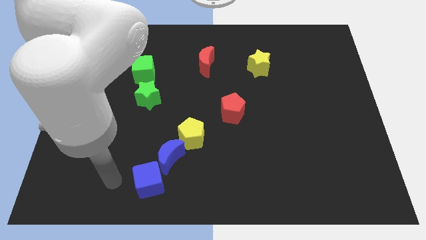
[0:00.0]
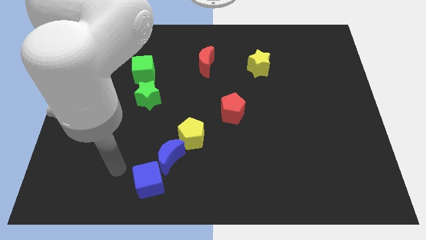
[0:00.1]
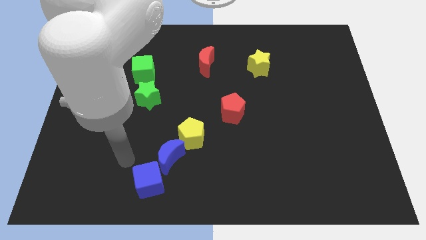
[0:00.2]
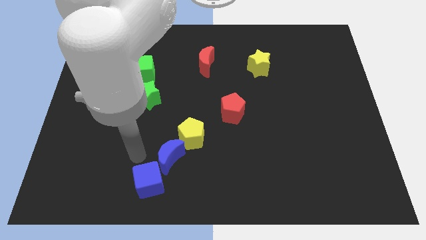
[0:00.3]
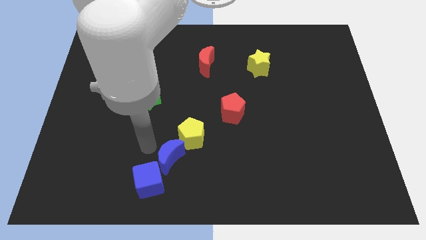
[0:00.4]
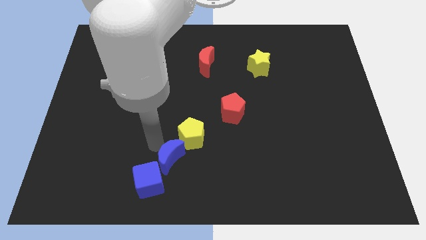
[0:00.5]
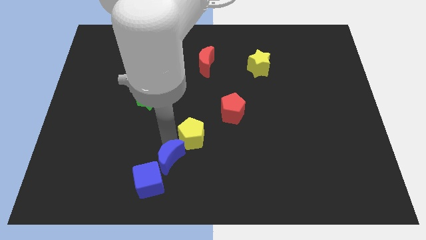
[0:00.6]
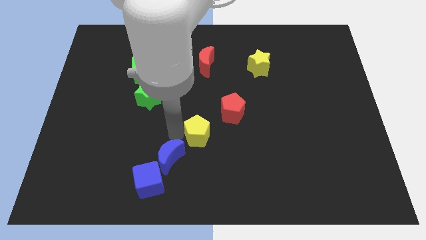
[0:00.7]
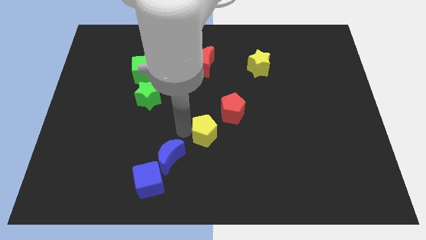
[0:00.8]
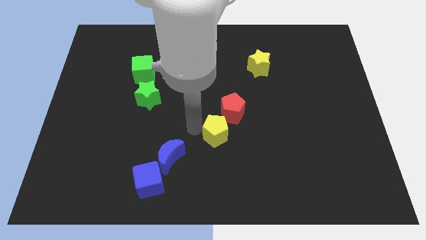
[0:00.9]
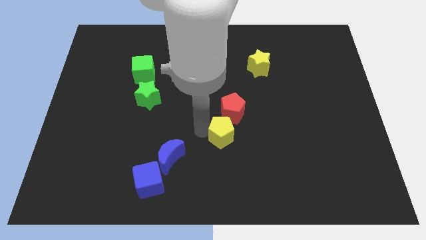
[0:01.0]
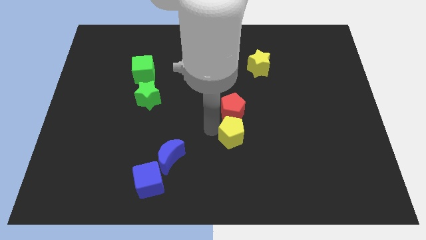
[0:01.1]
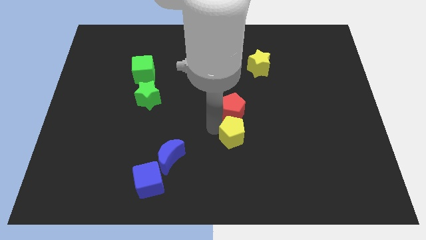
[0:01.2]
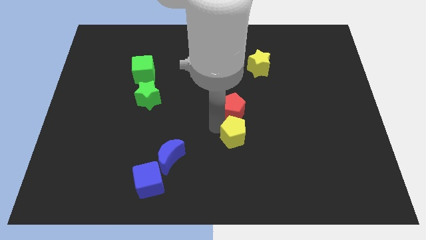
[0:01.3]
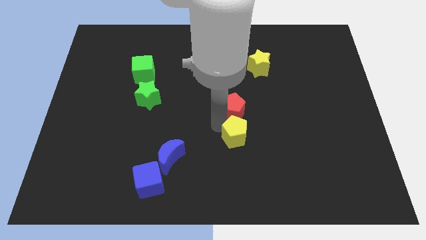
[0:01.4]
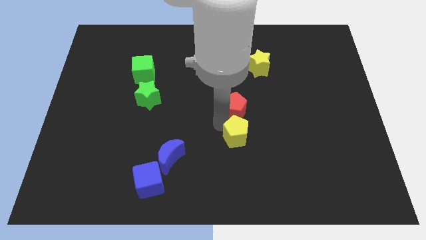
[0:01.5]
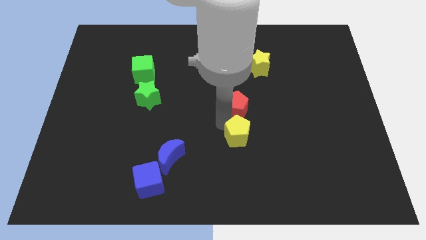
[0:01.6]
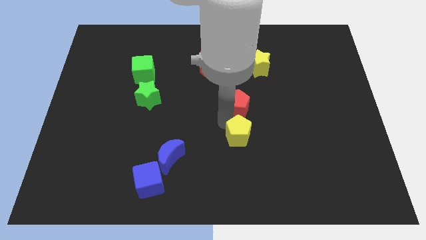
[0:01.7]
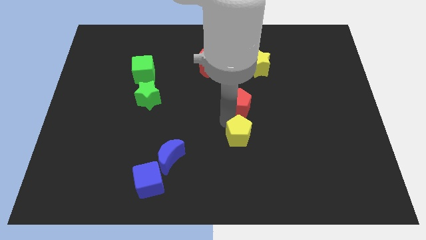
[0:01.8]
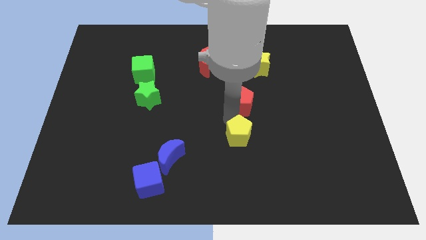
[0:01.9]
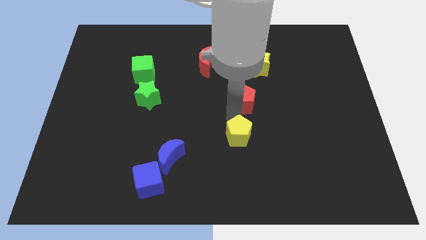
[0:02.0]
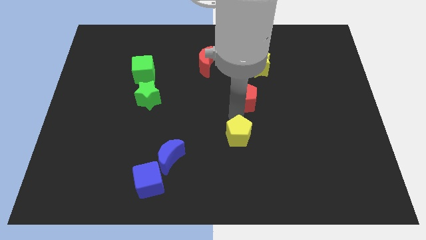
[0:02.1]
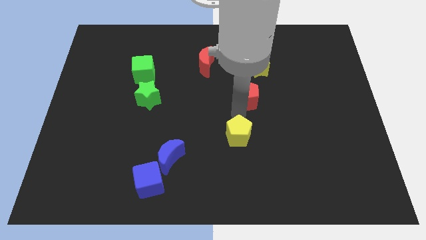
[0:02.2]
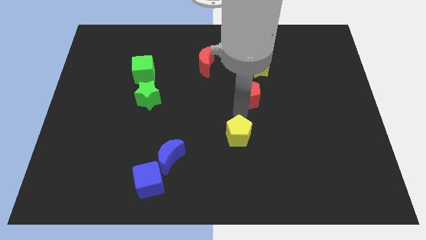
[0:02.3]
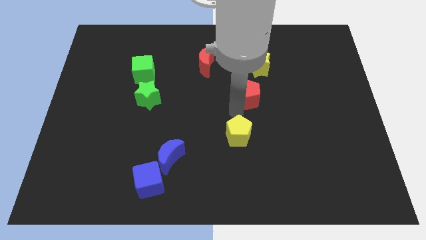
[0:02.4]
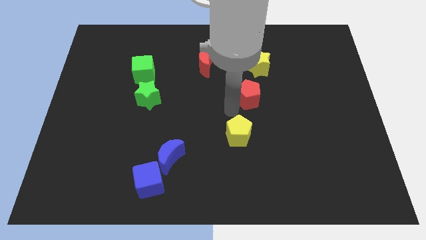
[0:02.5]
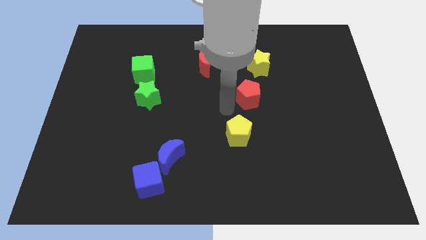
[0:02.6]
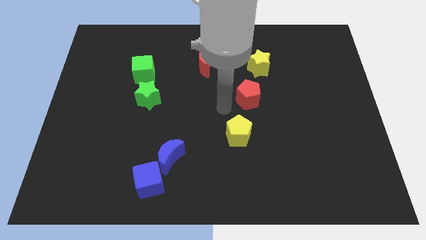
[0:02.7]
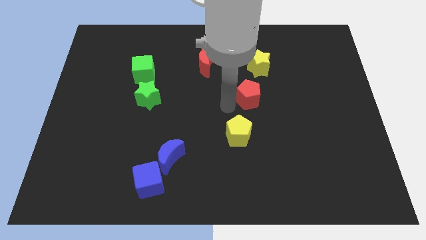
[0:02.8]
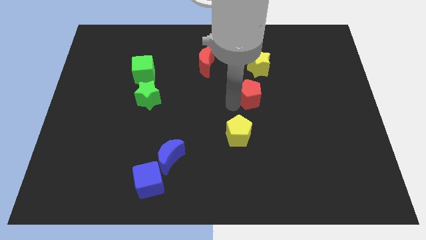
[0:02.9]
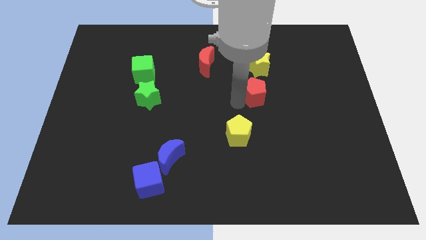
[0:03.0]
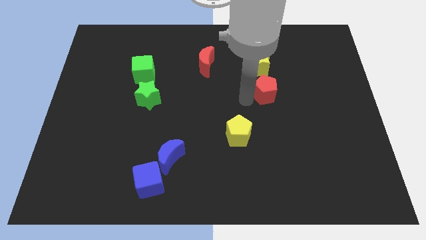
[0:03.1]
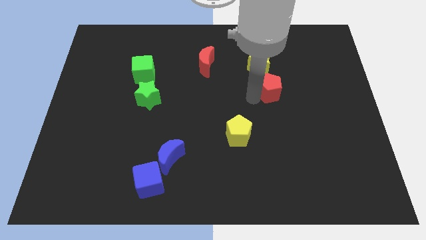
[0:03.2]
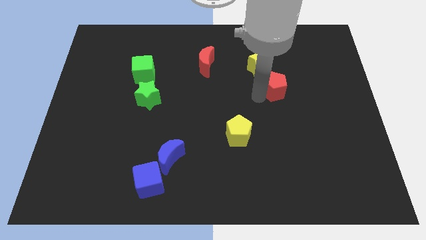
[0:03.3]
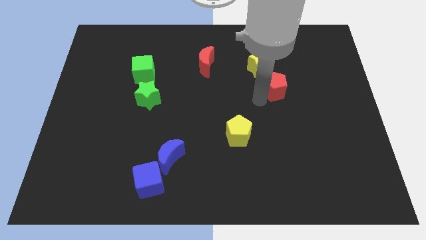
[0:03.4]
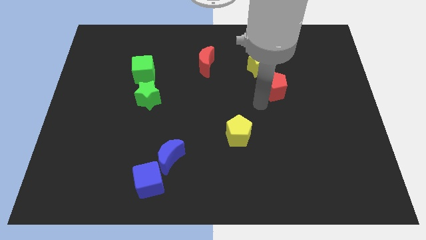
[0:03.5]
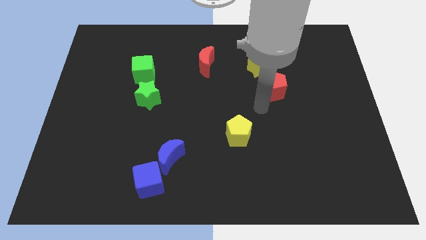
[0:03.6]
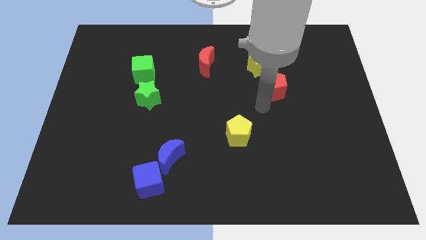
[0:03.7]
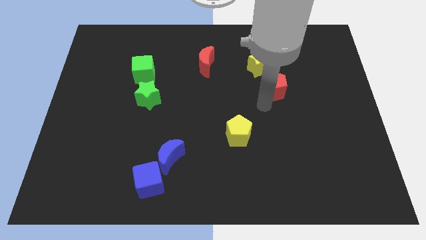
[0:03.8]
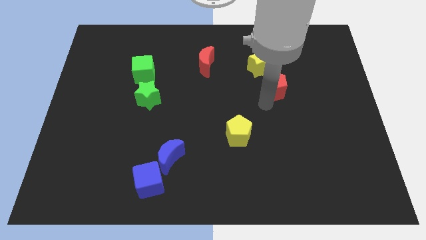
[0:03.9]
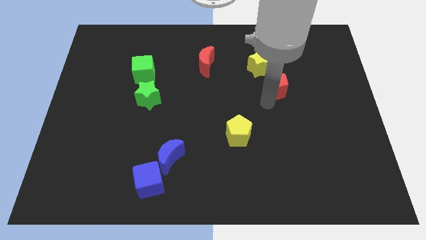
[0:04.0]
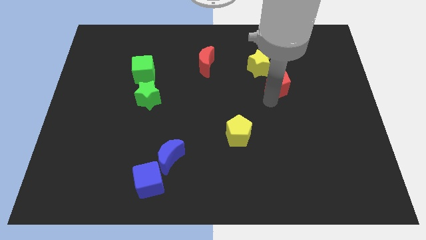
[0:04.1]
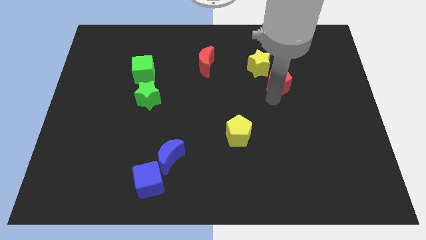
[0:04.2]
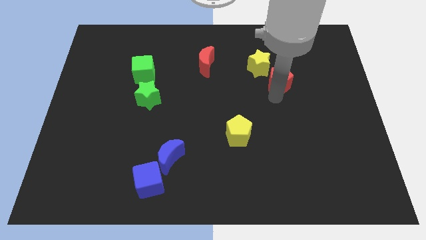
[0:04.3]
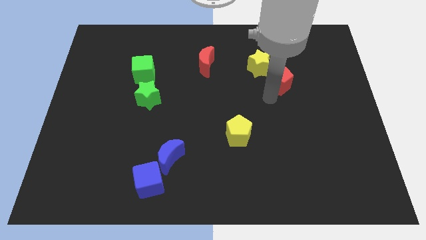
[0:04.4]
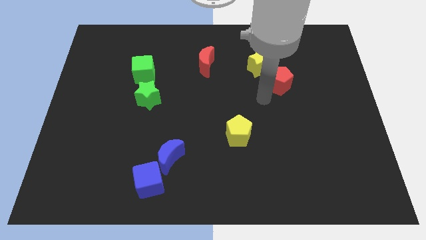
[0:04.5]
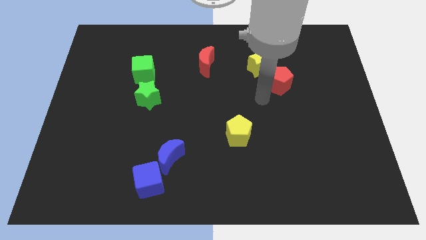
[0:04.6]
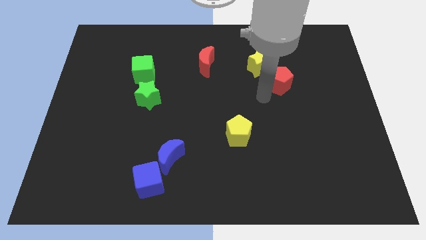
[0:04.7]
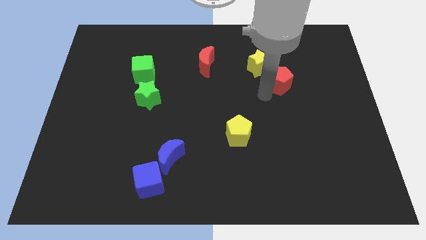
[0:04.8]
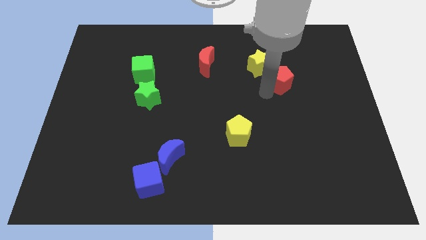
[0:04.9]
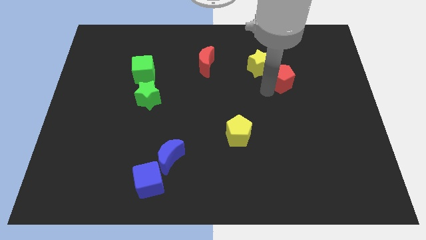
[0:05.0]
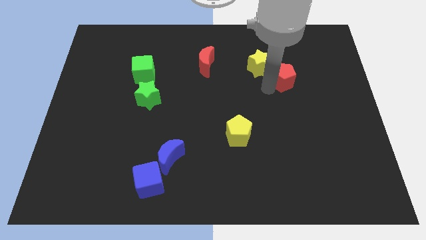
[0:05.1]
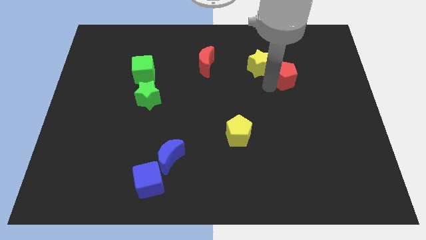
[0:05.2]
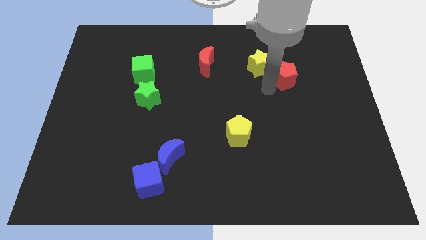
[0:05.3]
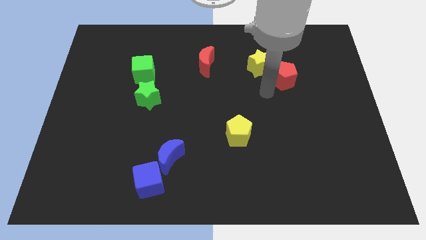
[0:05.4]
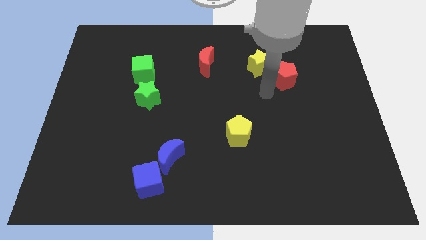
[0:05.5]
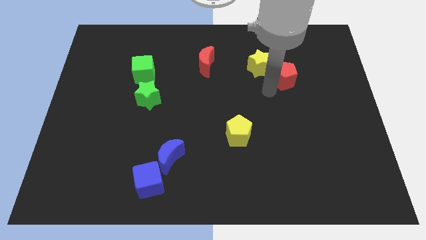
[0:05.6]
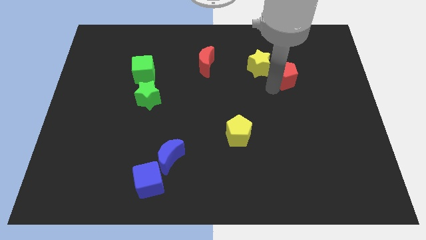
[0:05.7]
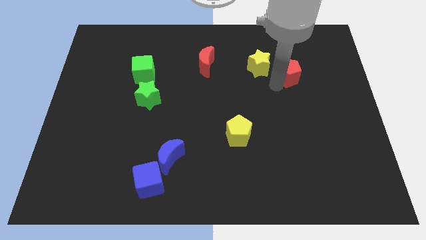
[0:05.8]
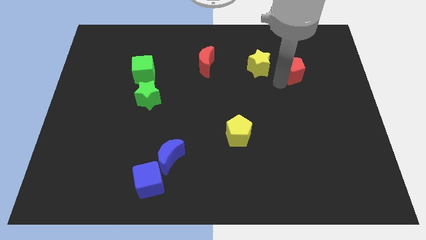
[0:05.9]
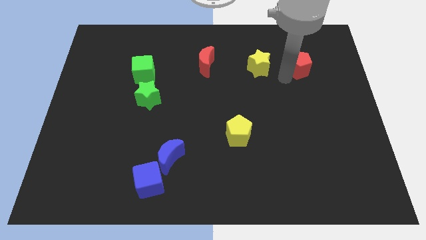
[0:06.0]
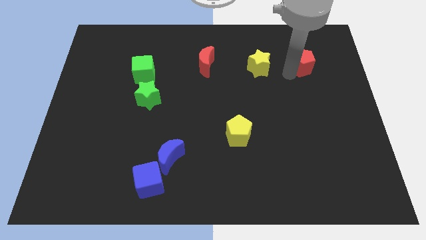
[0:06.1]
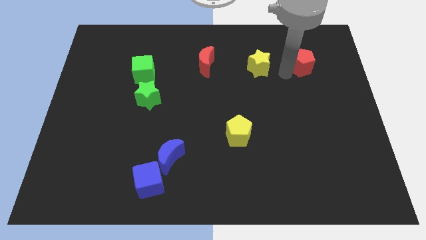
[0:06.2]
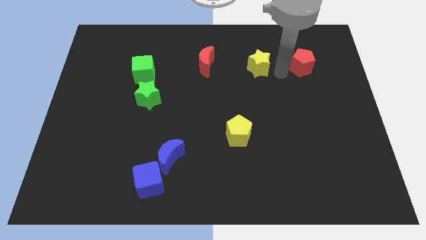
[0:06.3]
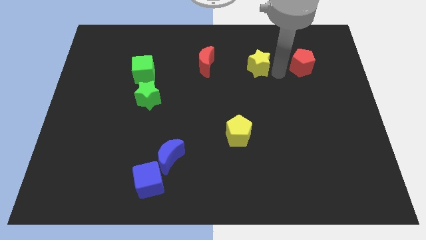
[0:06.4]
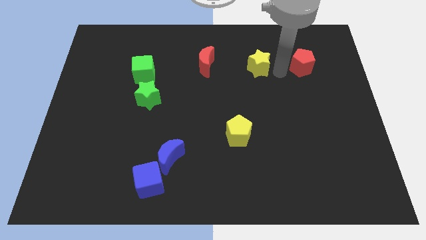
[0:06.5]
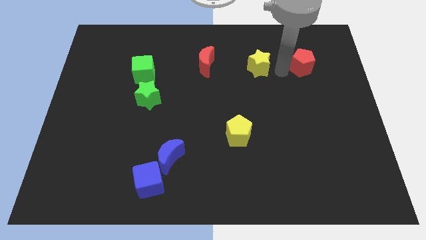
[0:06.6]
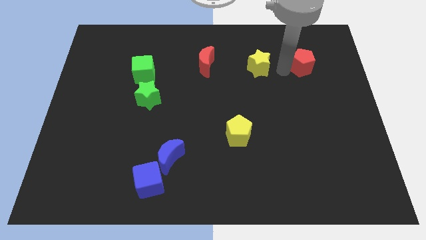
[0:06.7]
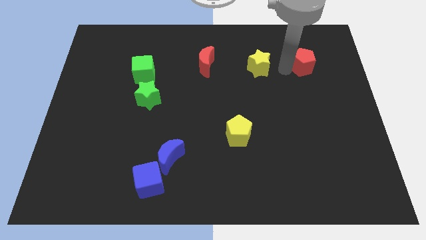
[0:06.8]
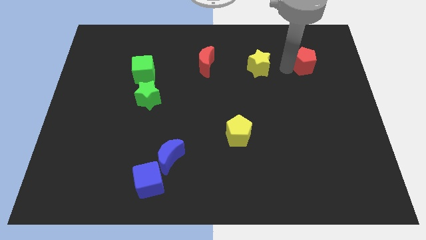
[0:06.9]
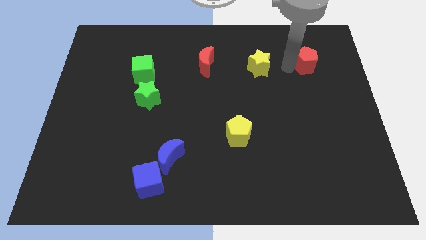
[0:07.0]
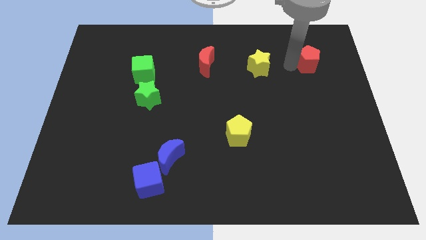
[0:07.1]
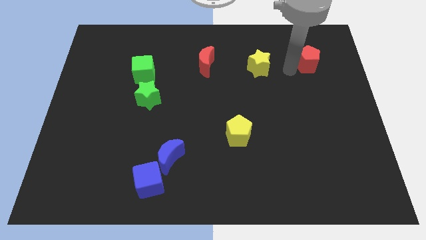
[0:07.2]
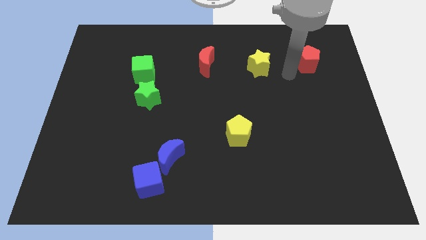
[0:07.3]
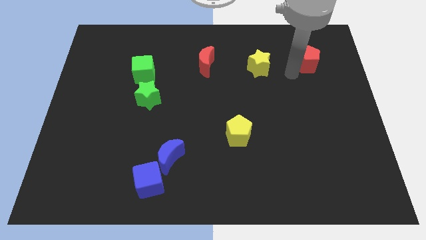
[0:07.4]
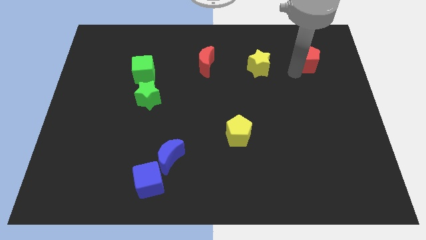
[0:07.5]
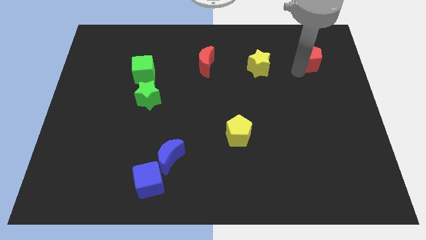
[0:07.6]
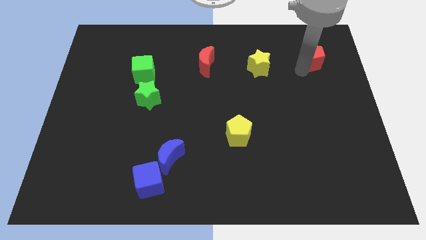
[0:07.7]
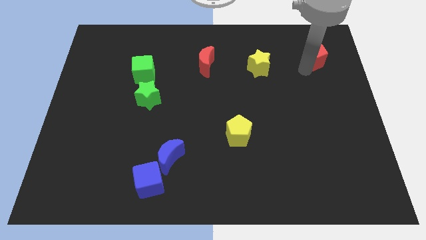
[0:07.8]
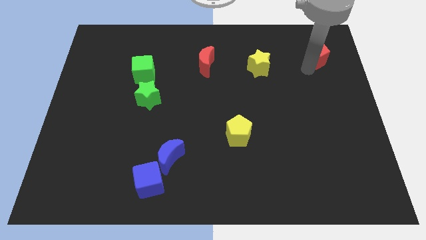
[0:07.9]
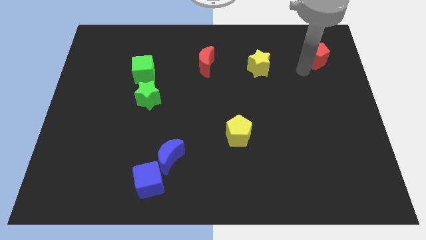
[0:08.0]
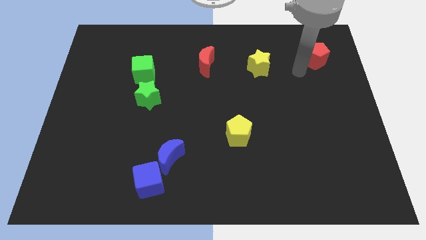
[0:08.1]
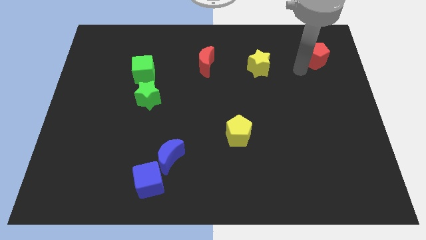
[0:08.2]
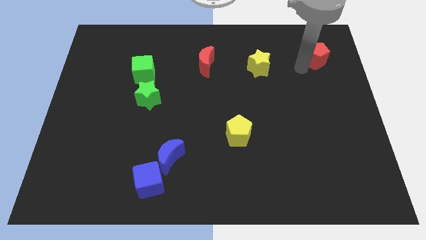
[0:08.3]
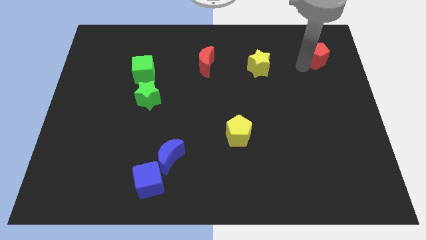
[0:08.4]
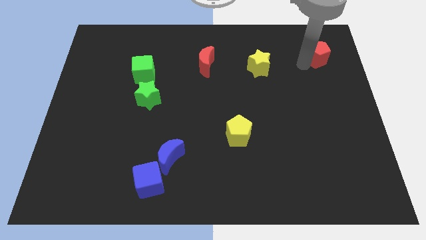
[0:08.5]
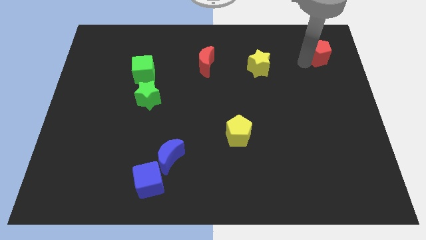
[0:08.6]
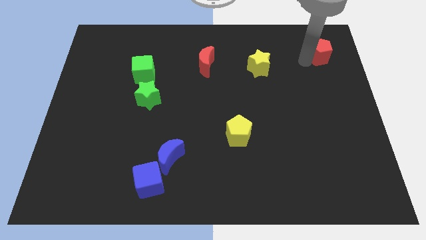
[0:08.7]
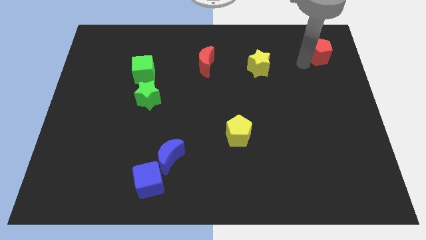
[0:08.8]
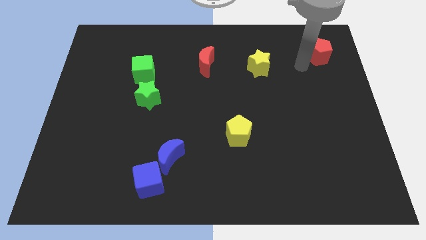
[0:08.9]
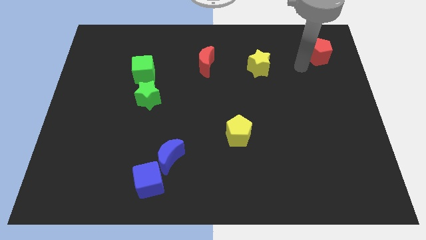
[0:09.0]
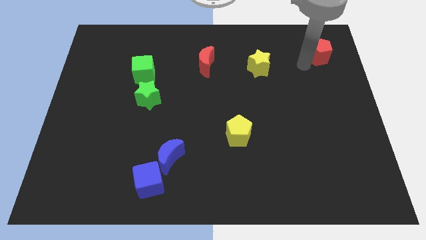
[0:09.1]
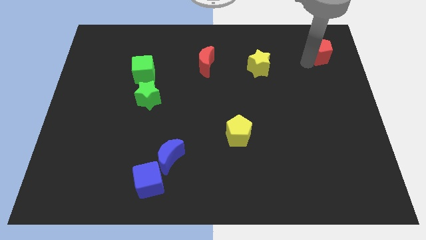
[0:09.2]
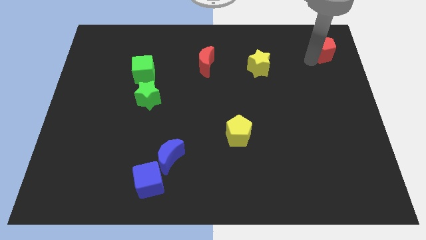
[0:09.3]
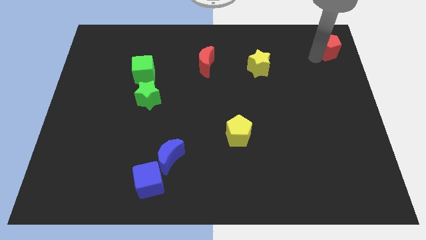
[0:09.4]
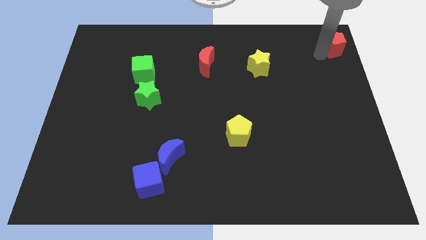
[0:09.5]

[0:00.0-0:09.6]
slide the red pentagon to the top right
